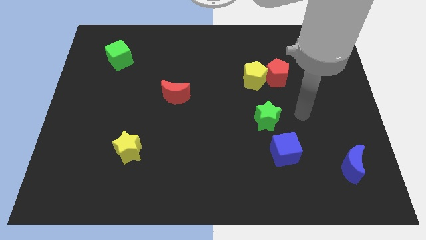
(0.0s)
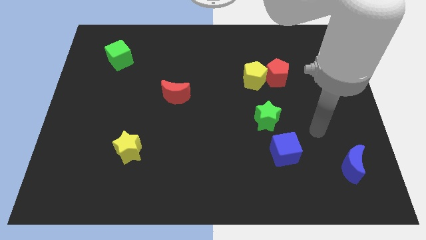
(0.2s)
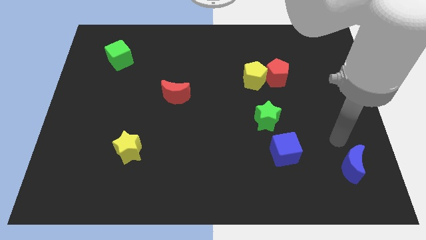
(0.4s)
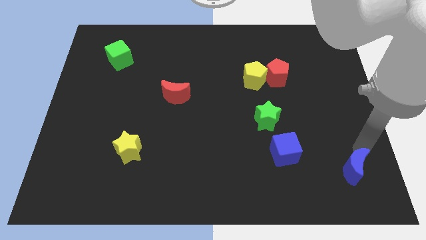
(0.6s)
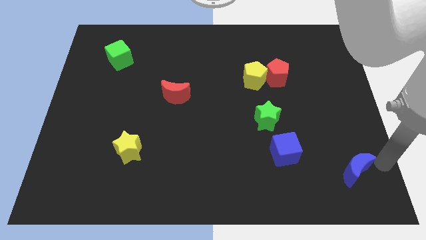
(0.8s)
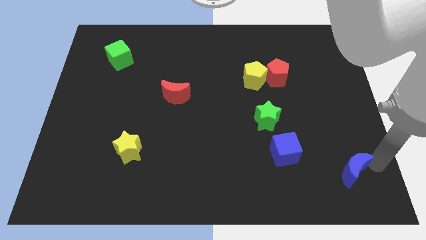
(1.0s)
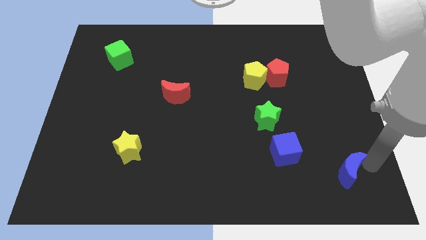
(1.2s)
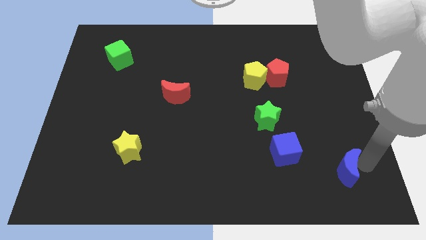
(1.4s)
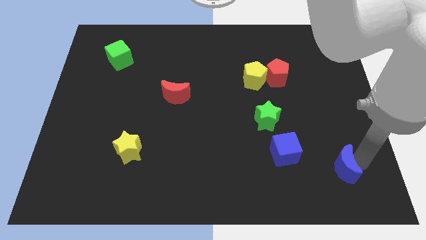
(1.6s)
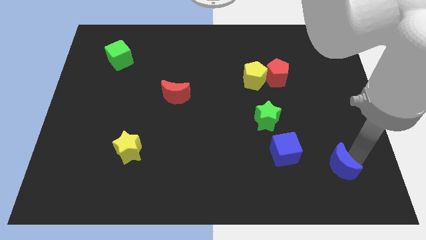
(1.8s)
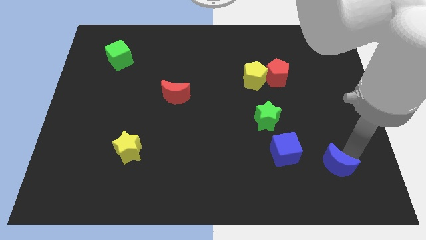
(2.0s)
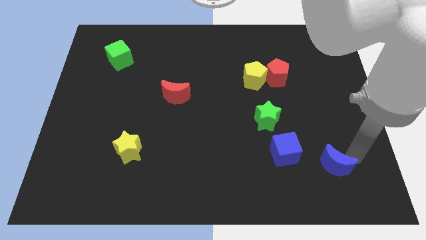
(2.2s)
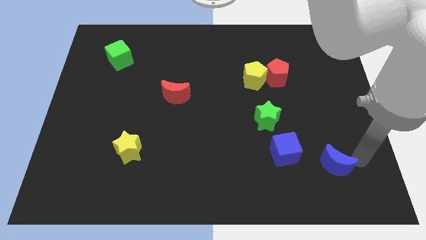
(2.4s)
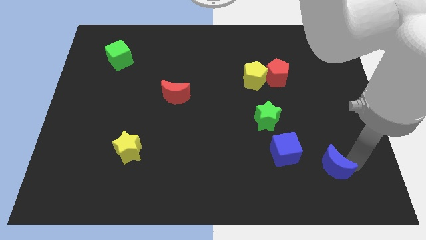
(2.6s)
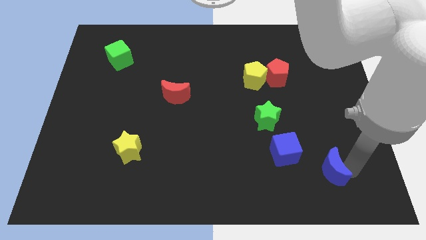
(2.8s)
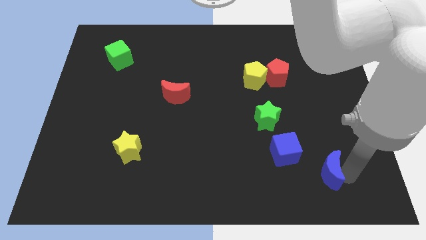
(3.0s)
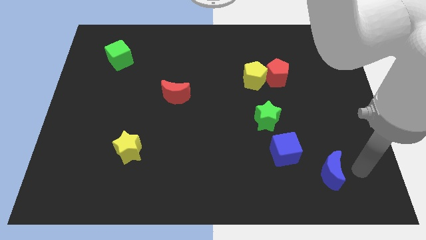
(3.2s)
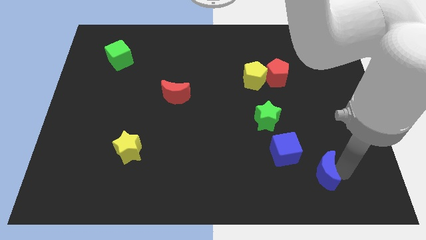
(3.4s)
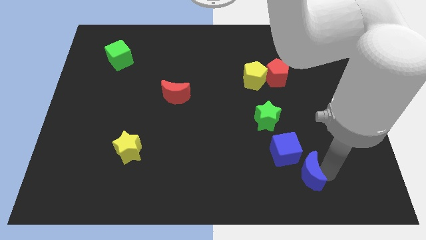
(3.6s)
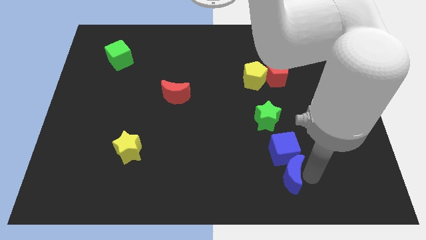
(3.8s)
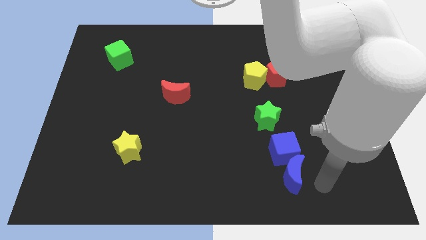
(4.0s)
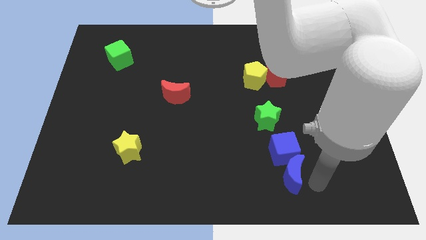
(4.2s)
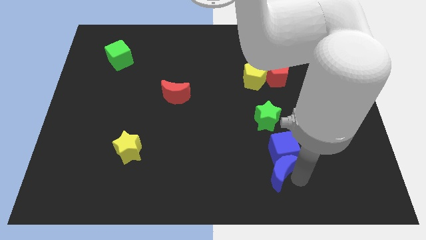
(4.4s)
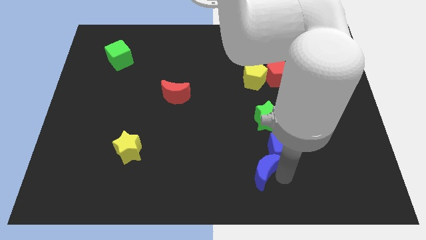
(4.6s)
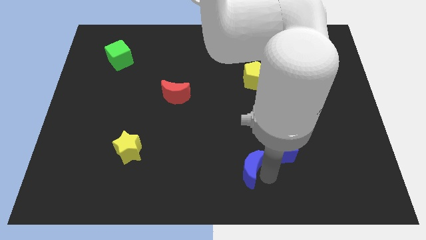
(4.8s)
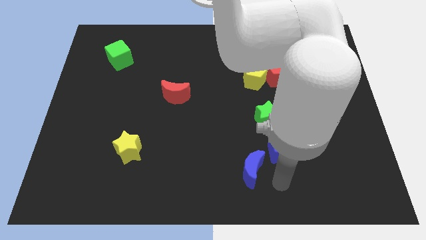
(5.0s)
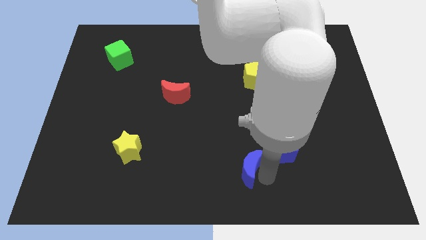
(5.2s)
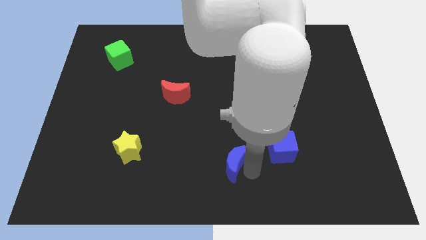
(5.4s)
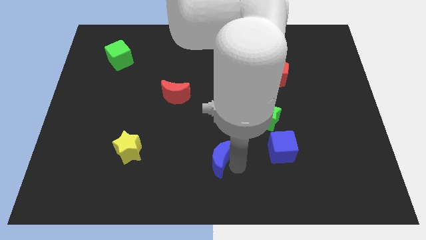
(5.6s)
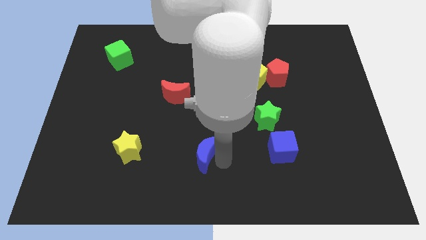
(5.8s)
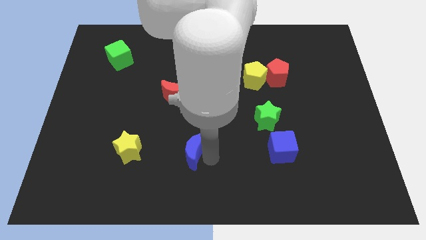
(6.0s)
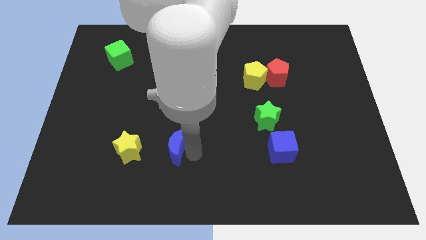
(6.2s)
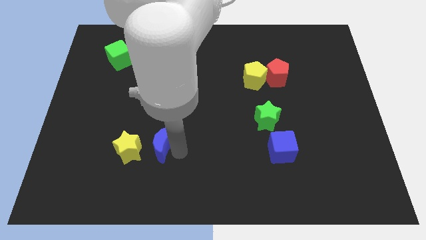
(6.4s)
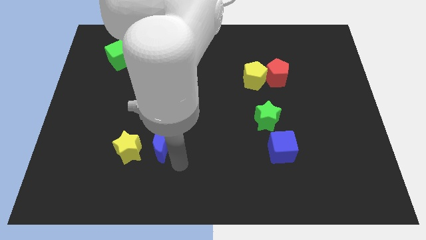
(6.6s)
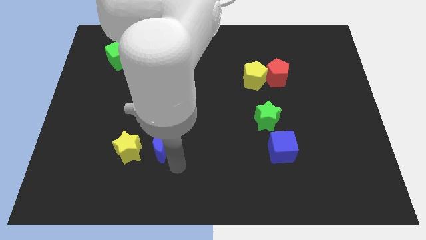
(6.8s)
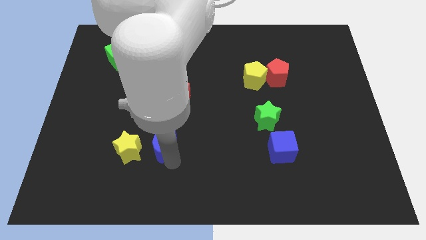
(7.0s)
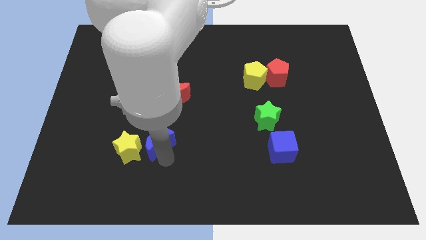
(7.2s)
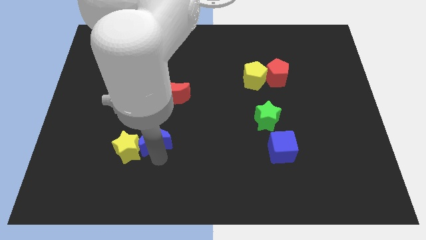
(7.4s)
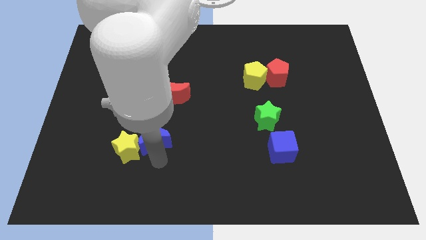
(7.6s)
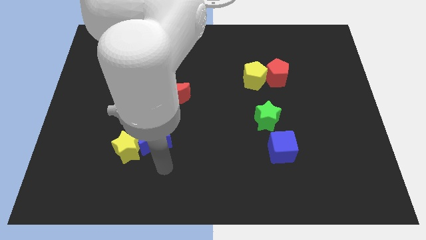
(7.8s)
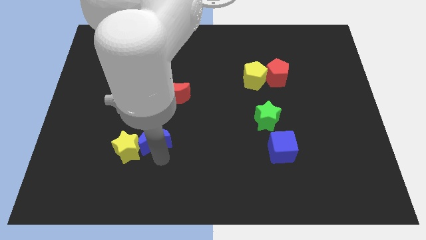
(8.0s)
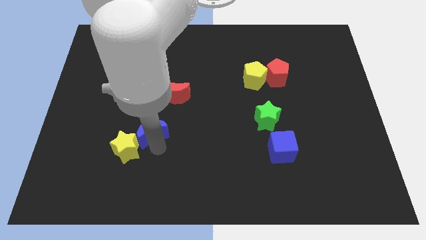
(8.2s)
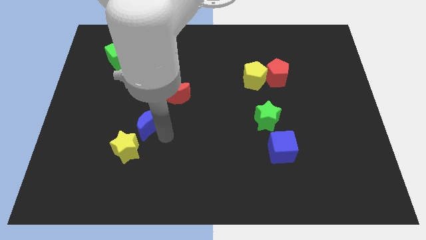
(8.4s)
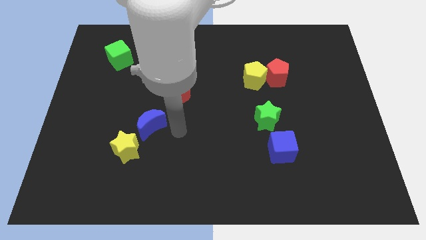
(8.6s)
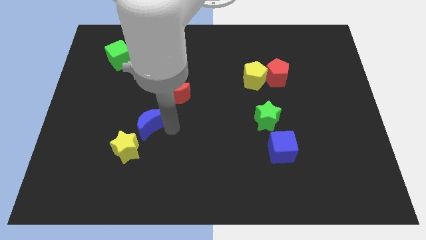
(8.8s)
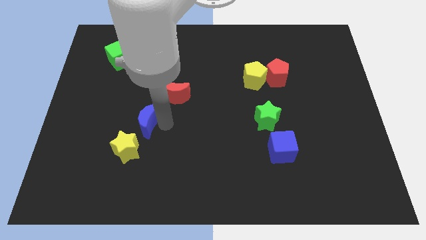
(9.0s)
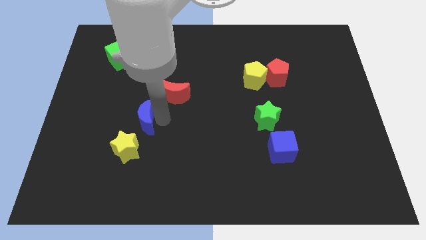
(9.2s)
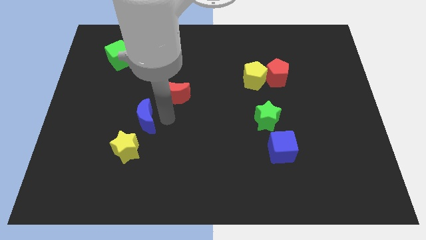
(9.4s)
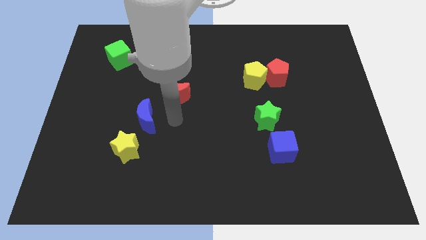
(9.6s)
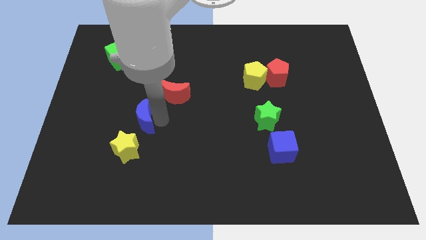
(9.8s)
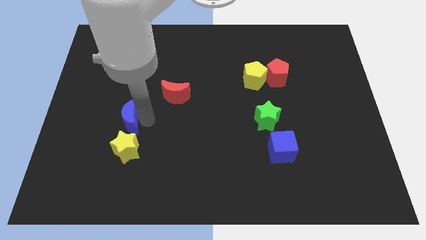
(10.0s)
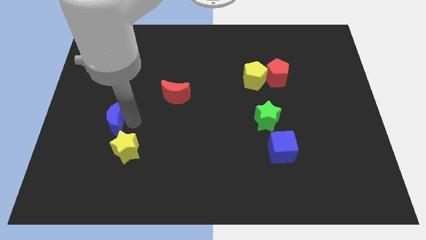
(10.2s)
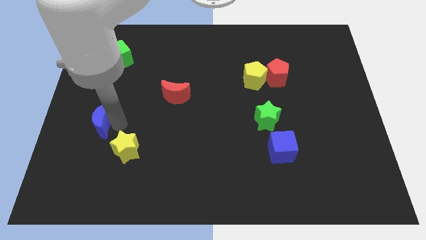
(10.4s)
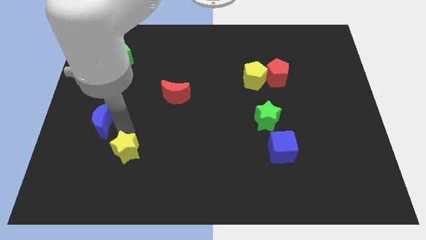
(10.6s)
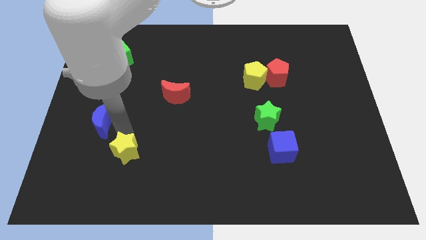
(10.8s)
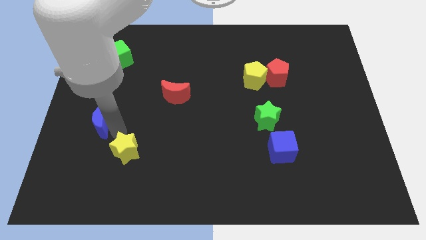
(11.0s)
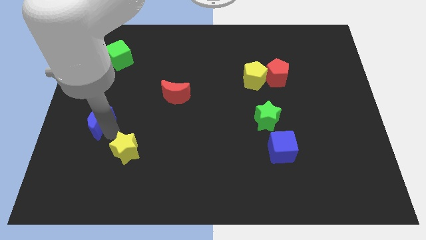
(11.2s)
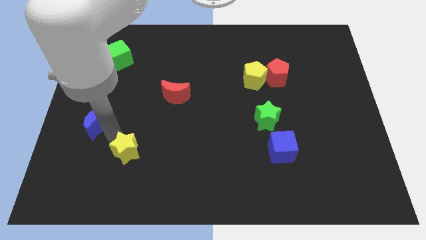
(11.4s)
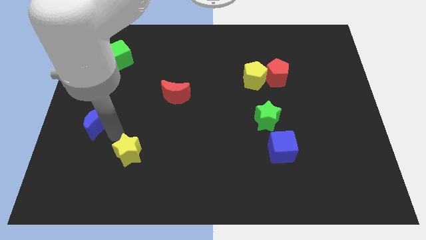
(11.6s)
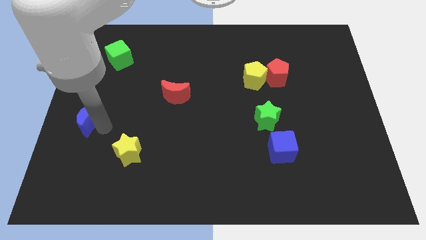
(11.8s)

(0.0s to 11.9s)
slide the blue moon to the left side of the board

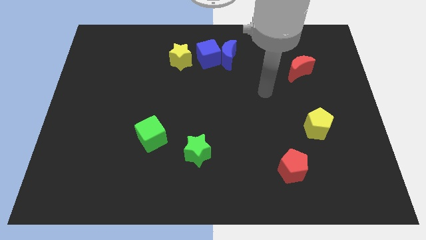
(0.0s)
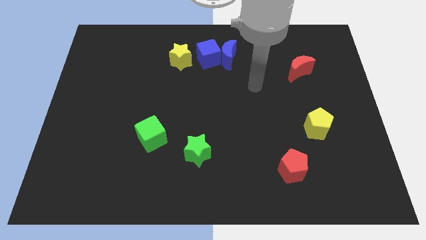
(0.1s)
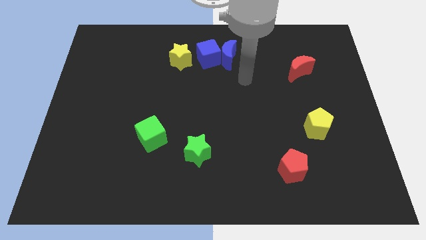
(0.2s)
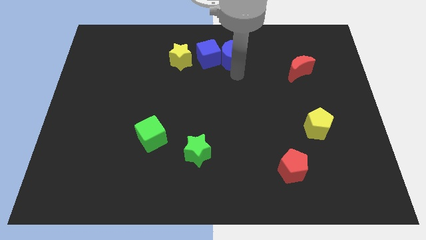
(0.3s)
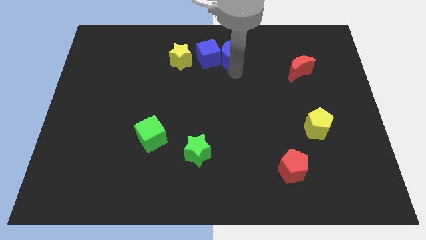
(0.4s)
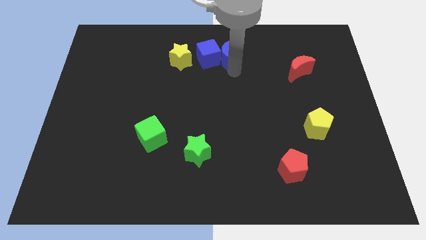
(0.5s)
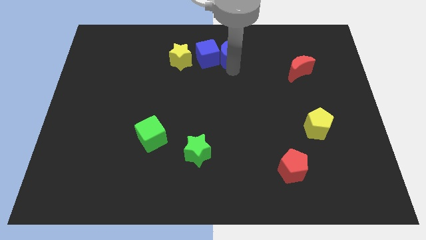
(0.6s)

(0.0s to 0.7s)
move the blue moon to the towards your base

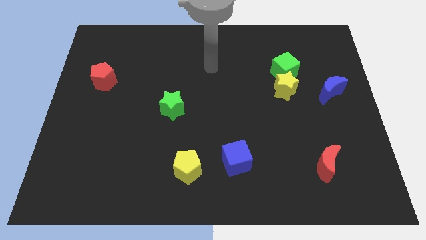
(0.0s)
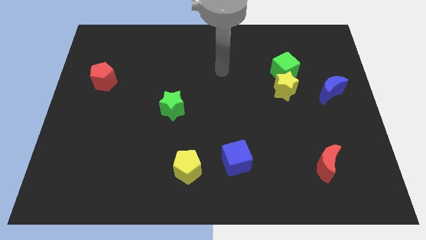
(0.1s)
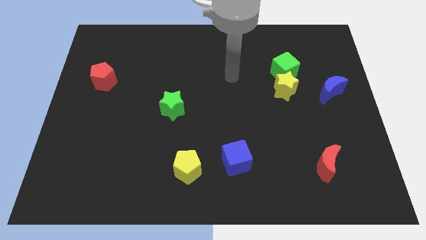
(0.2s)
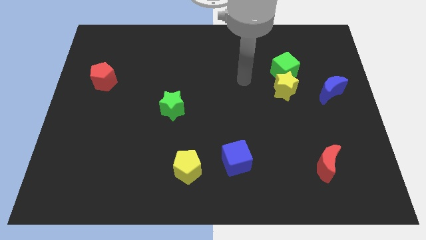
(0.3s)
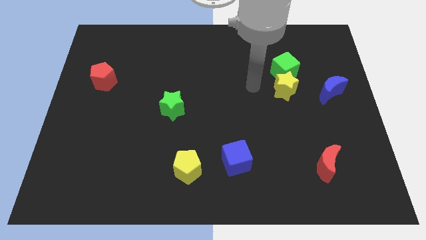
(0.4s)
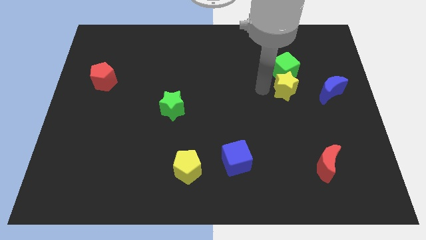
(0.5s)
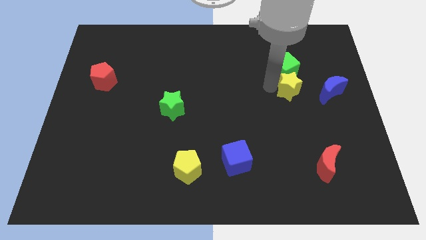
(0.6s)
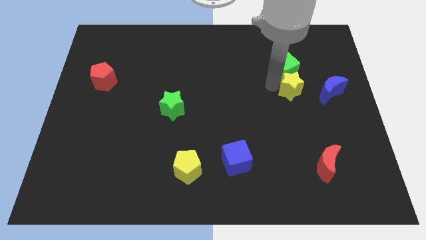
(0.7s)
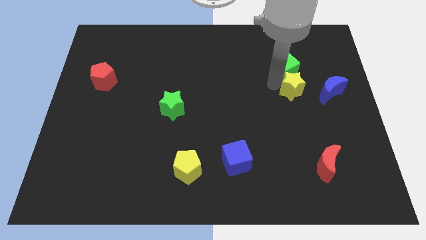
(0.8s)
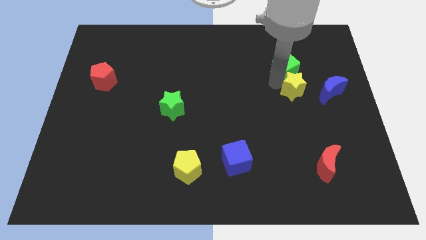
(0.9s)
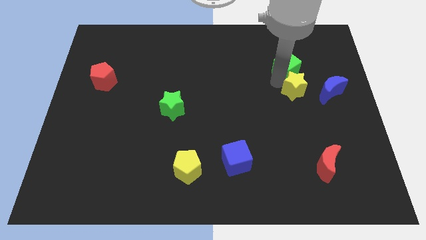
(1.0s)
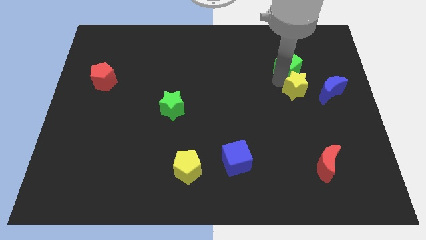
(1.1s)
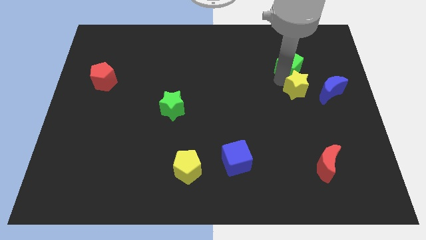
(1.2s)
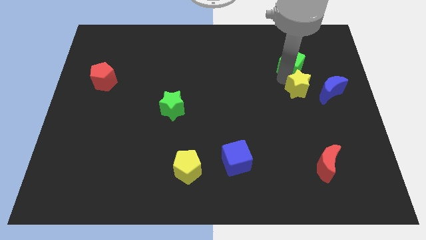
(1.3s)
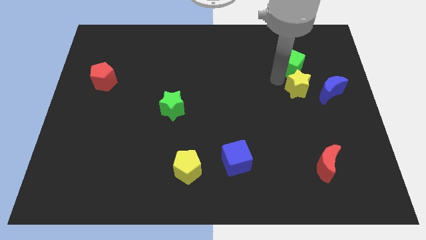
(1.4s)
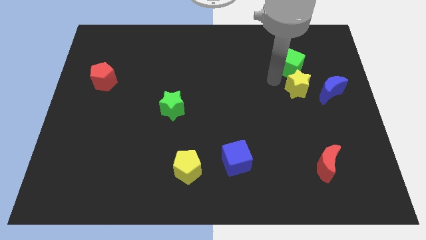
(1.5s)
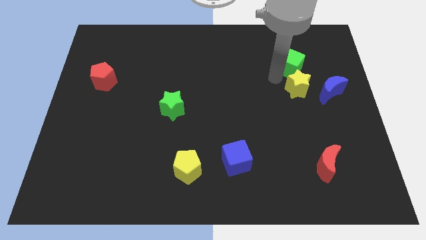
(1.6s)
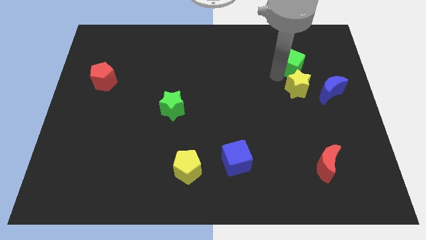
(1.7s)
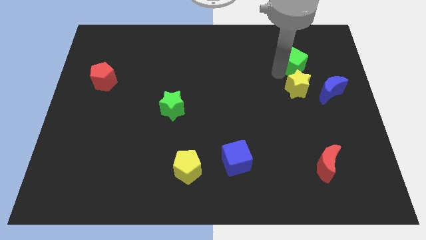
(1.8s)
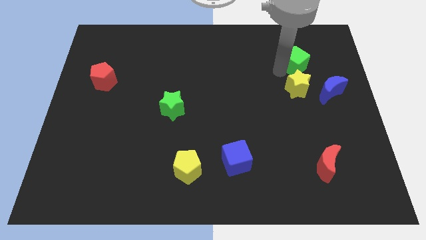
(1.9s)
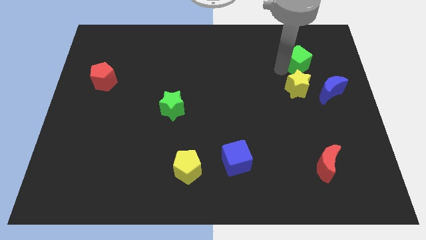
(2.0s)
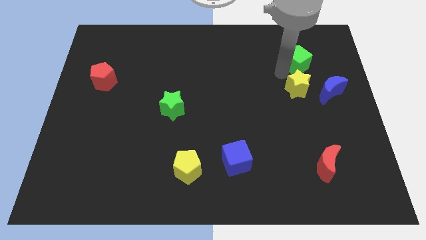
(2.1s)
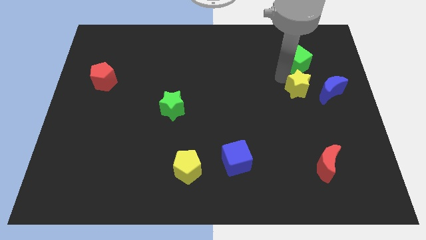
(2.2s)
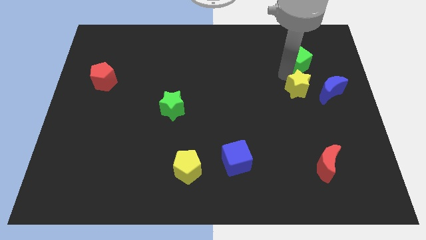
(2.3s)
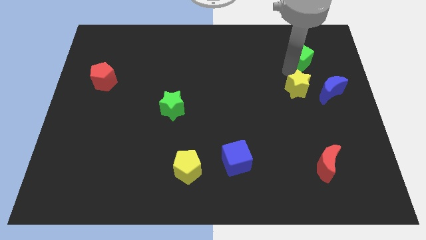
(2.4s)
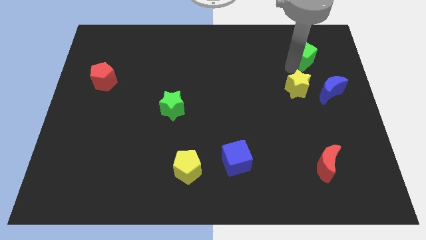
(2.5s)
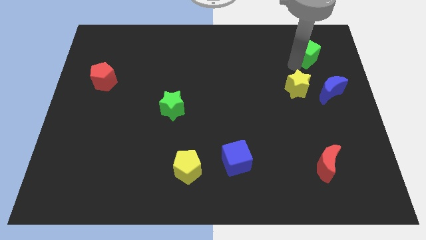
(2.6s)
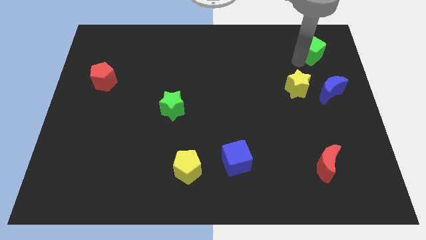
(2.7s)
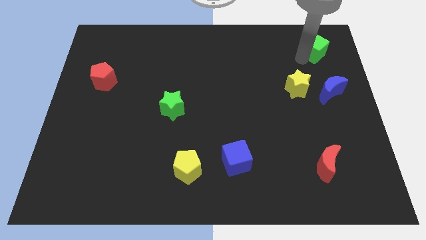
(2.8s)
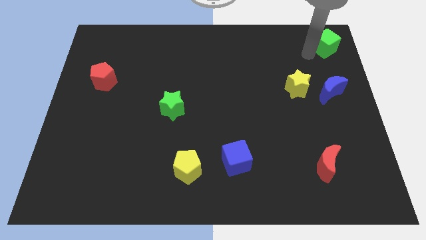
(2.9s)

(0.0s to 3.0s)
push the green cube to the top right corner
